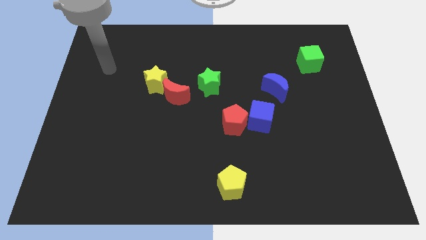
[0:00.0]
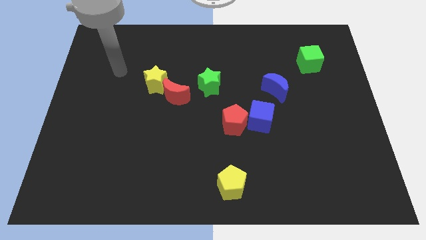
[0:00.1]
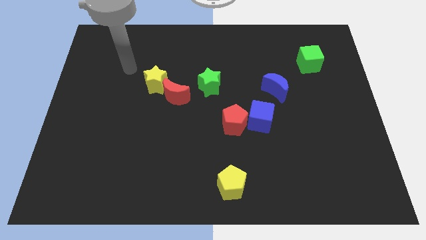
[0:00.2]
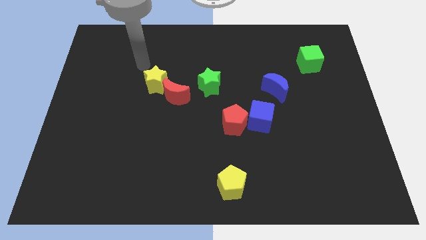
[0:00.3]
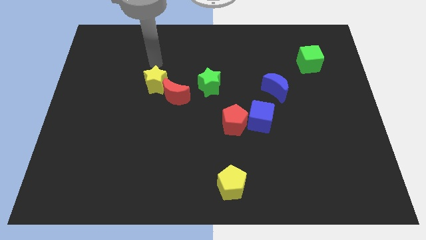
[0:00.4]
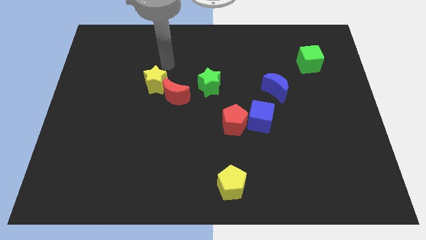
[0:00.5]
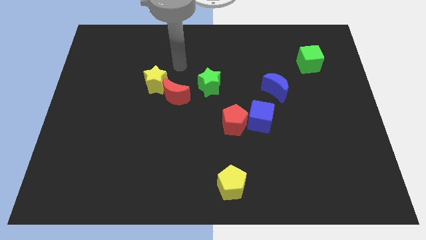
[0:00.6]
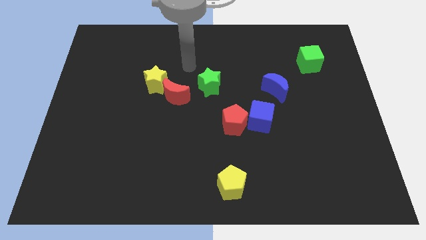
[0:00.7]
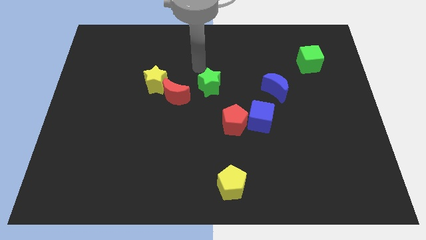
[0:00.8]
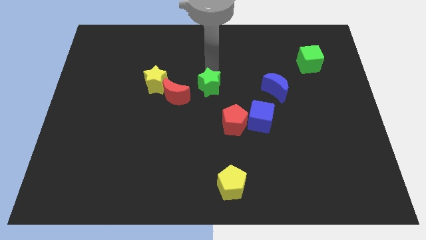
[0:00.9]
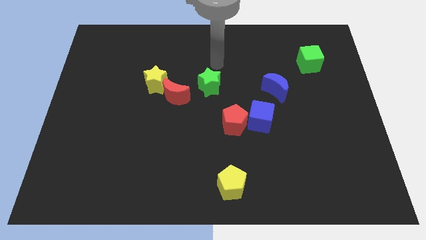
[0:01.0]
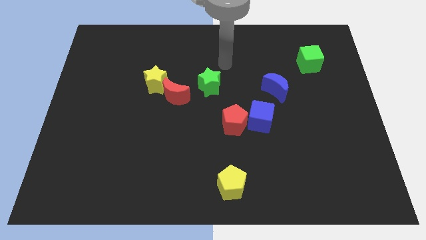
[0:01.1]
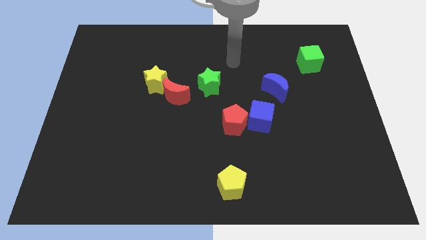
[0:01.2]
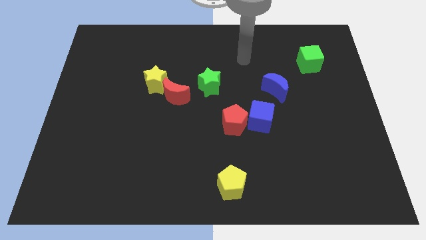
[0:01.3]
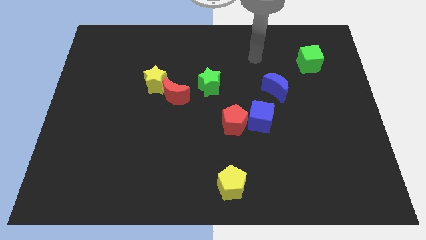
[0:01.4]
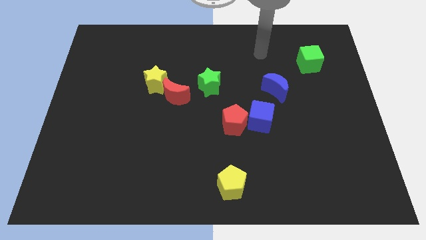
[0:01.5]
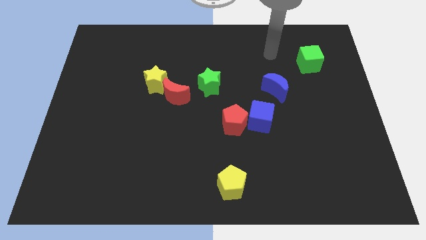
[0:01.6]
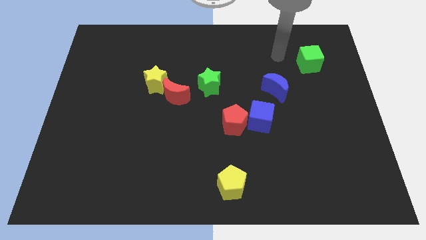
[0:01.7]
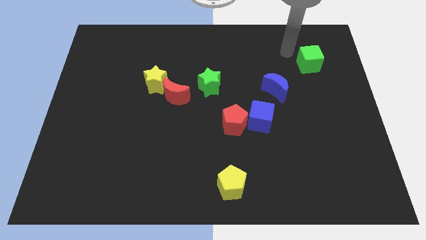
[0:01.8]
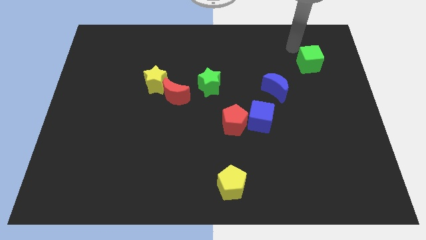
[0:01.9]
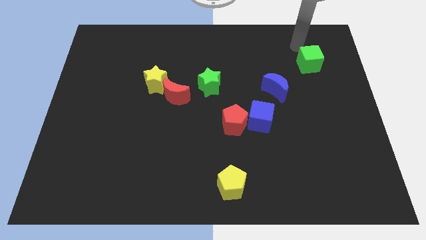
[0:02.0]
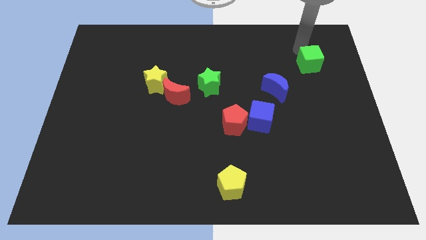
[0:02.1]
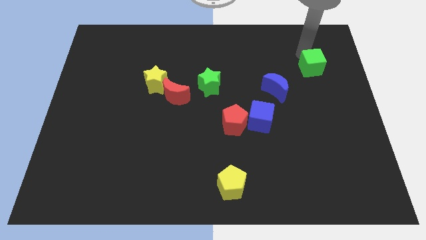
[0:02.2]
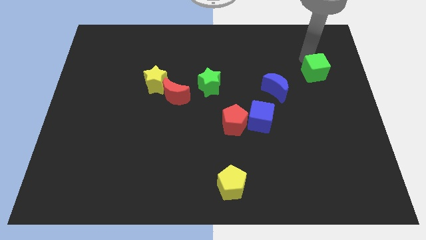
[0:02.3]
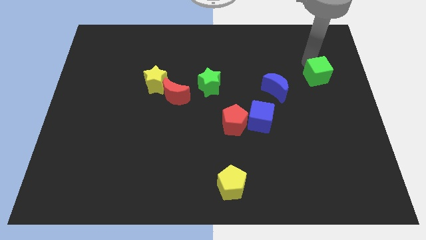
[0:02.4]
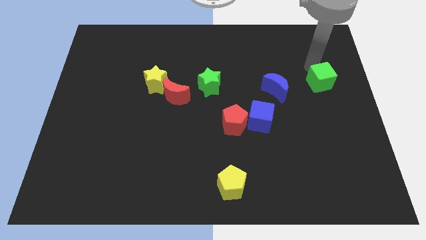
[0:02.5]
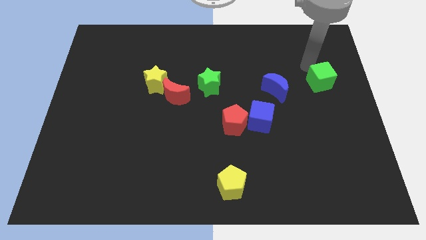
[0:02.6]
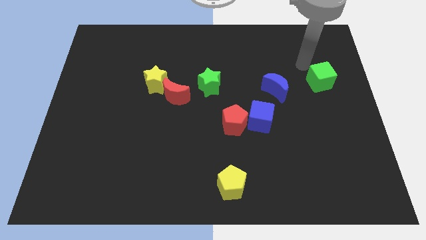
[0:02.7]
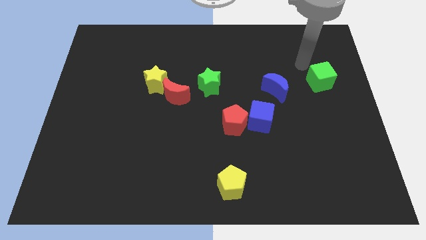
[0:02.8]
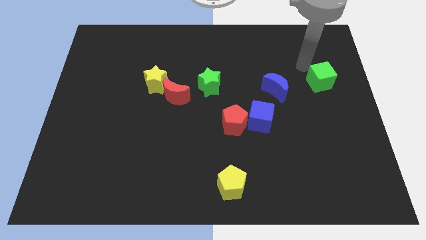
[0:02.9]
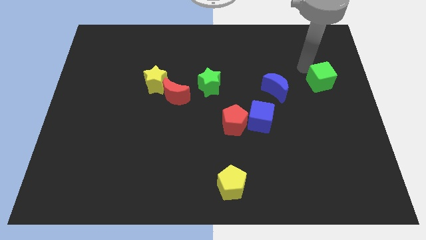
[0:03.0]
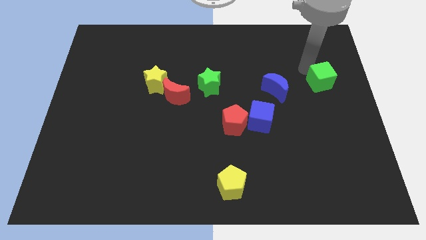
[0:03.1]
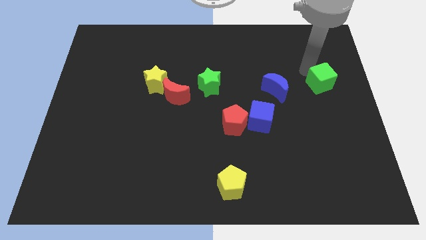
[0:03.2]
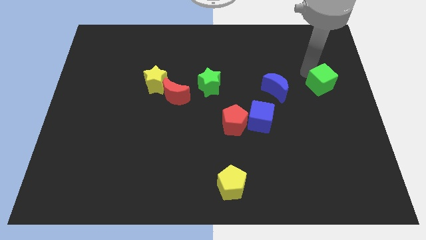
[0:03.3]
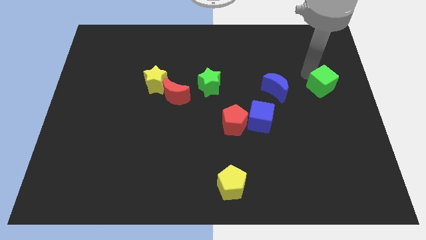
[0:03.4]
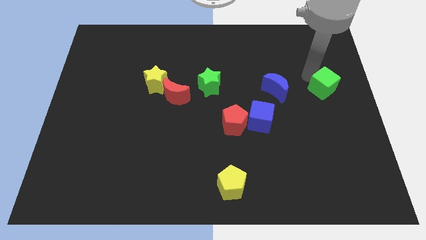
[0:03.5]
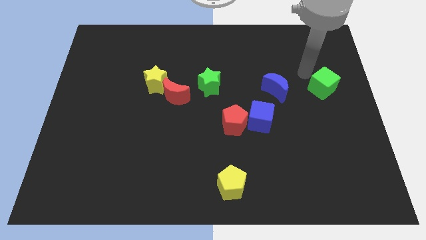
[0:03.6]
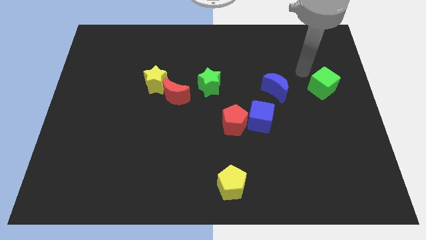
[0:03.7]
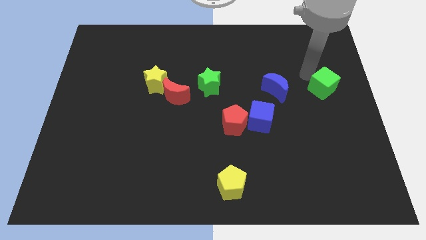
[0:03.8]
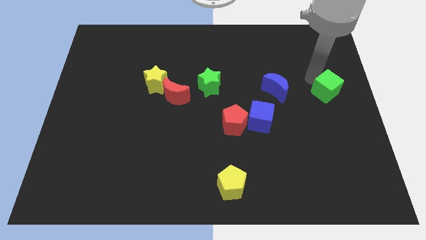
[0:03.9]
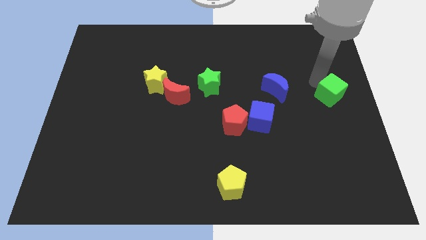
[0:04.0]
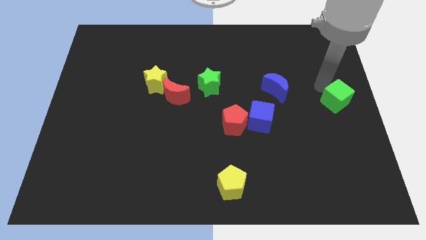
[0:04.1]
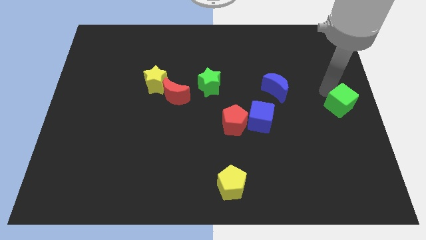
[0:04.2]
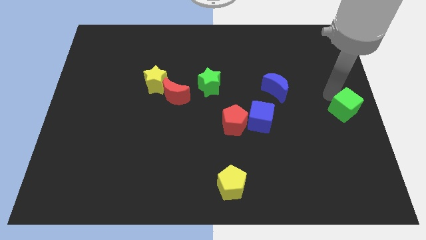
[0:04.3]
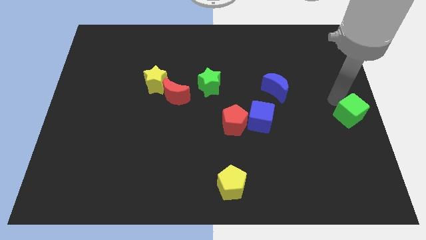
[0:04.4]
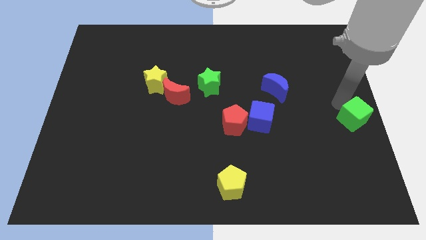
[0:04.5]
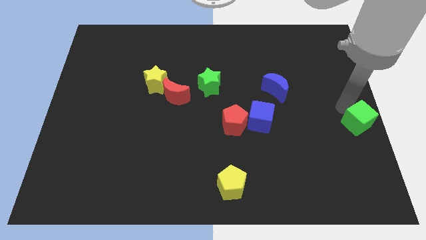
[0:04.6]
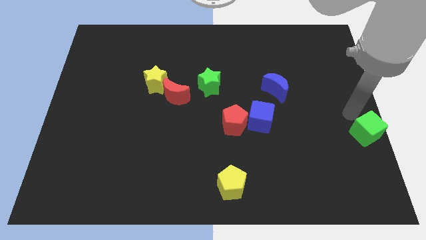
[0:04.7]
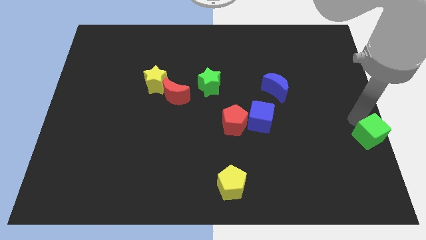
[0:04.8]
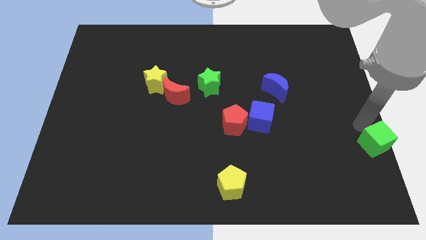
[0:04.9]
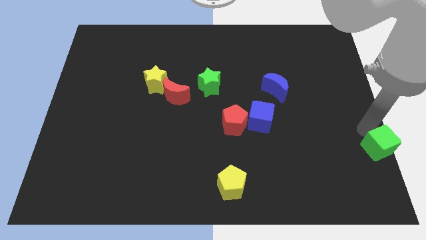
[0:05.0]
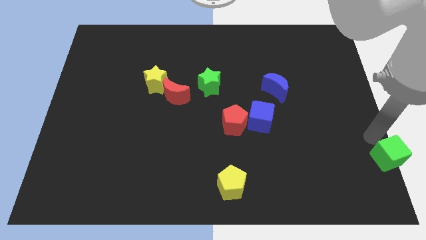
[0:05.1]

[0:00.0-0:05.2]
put the green cube to the bottom right
